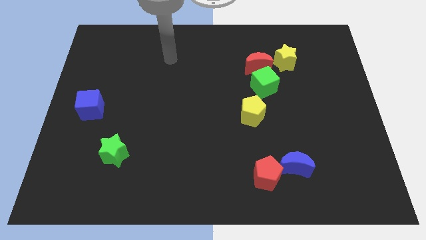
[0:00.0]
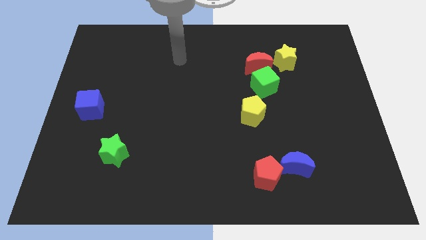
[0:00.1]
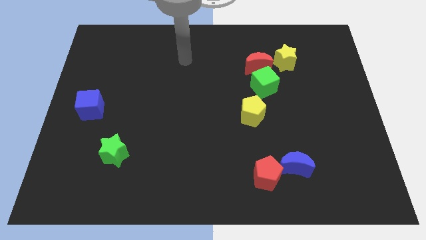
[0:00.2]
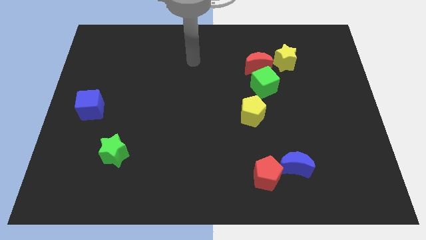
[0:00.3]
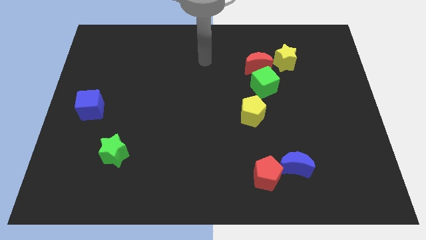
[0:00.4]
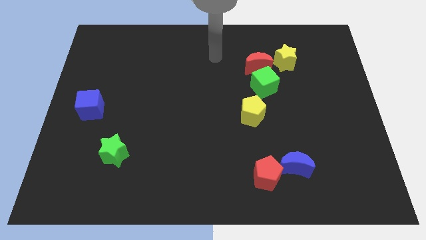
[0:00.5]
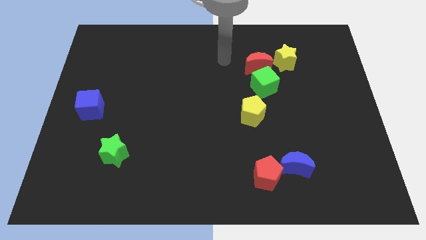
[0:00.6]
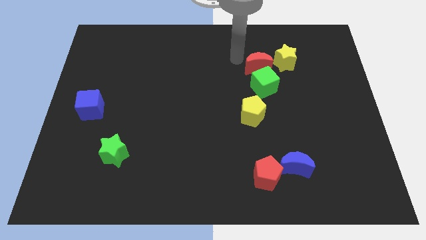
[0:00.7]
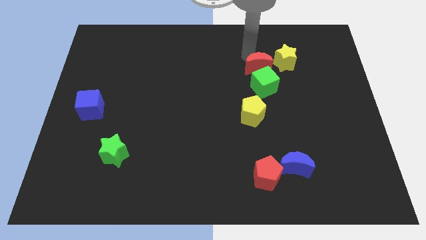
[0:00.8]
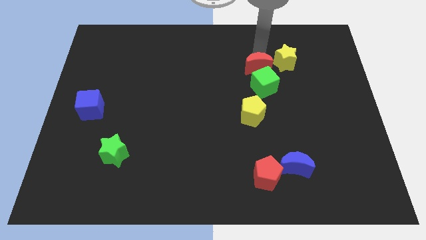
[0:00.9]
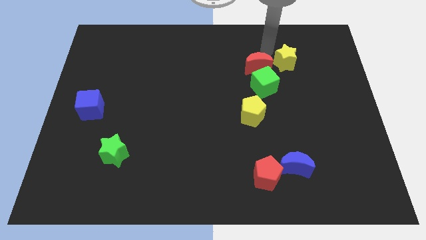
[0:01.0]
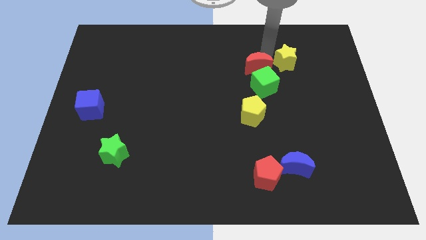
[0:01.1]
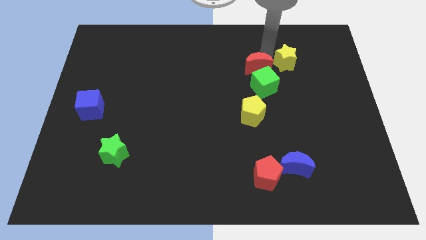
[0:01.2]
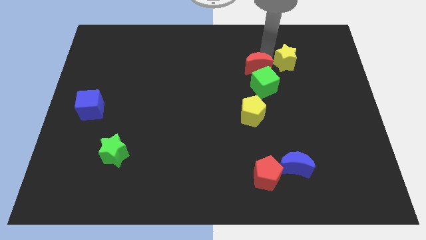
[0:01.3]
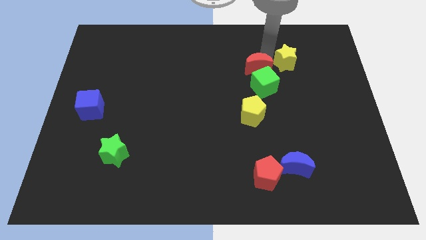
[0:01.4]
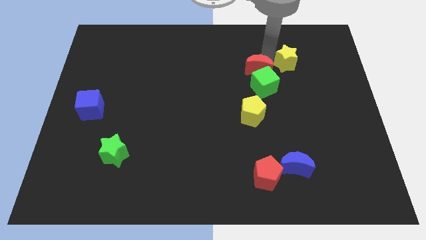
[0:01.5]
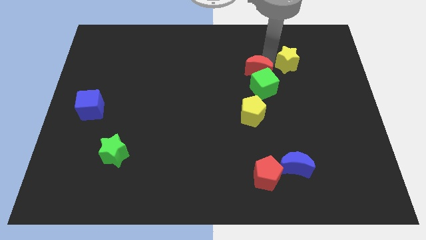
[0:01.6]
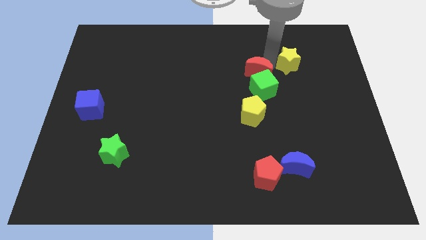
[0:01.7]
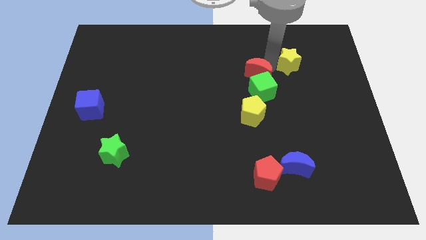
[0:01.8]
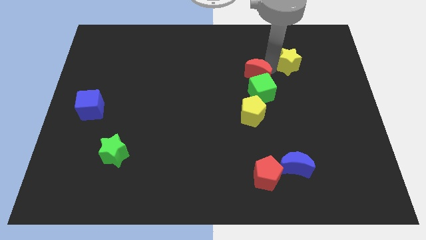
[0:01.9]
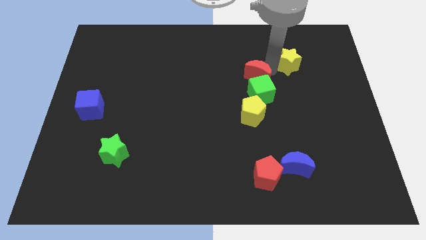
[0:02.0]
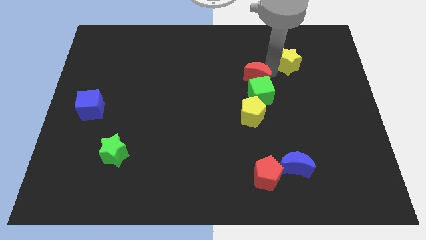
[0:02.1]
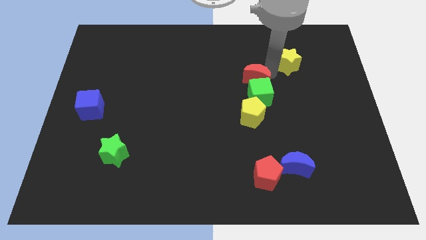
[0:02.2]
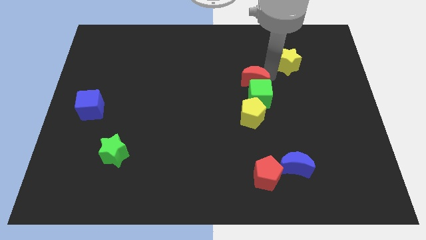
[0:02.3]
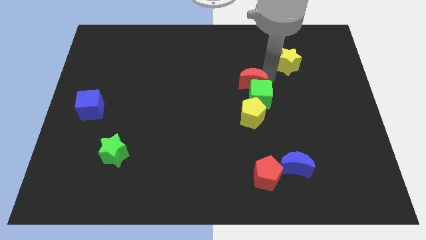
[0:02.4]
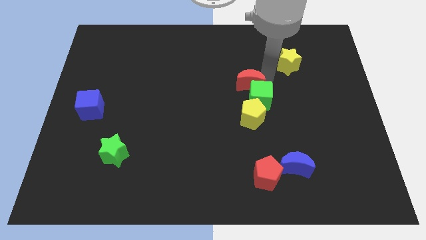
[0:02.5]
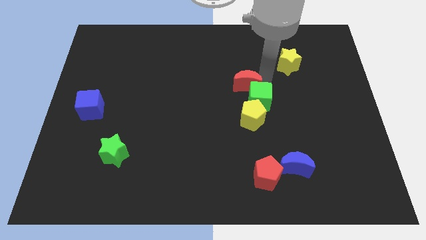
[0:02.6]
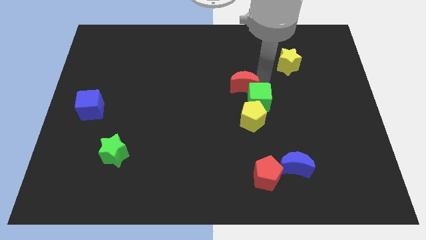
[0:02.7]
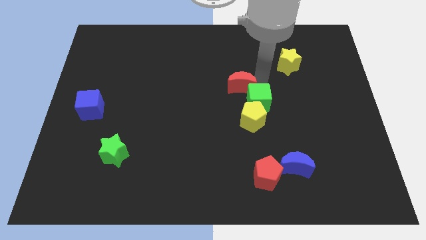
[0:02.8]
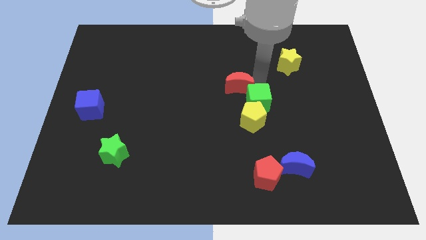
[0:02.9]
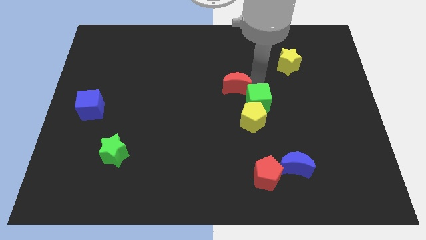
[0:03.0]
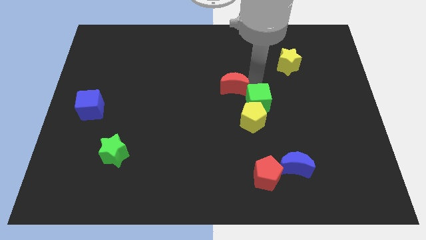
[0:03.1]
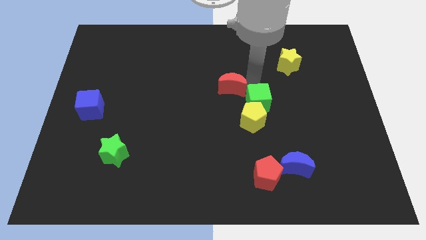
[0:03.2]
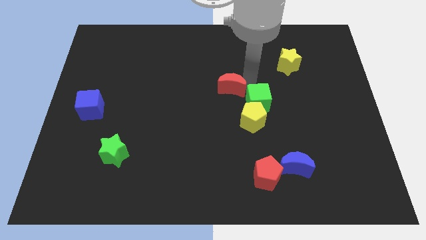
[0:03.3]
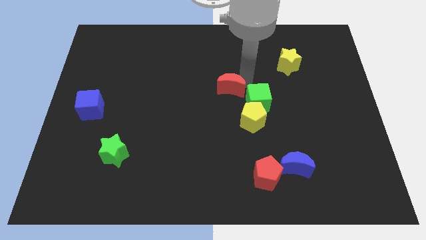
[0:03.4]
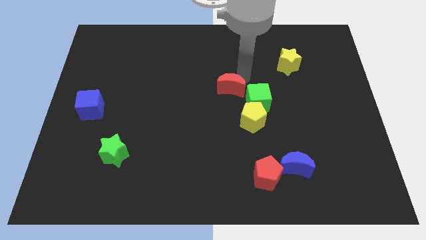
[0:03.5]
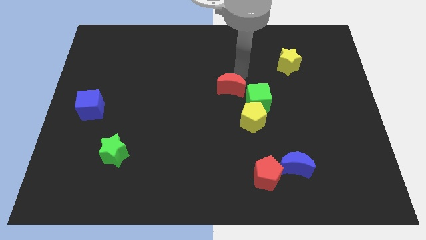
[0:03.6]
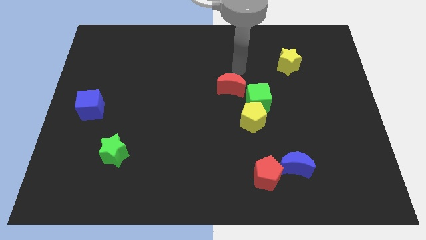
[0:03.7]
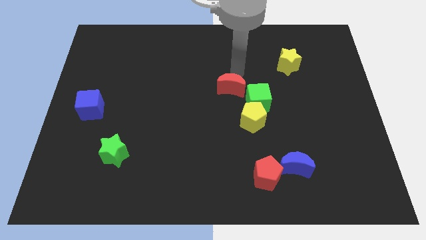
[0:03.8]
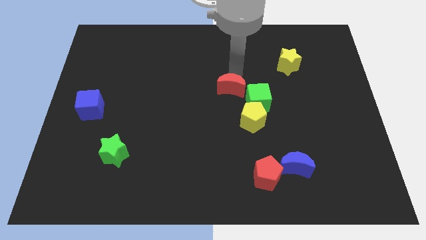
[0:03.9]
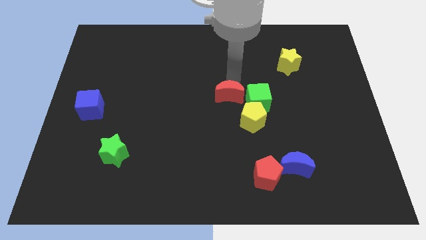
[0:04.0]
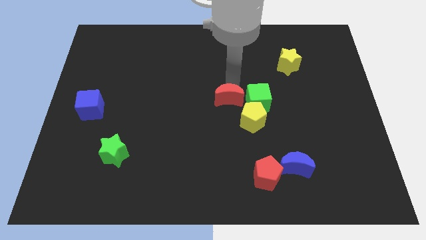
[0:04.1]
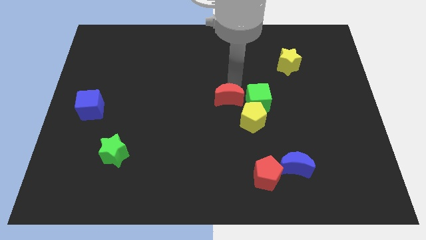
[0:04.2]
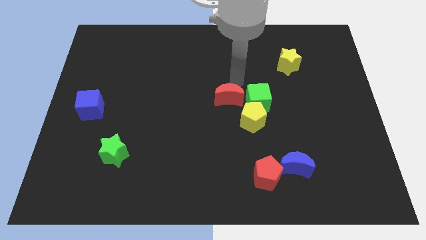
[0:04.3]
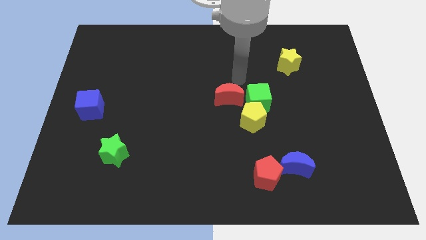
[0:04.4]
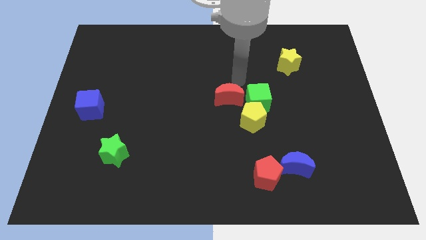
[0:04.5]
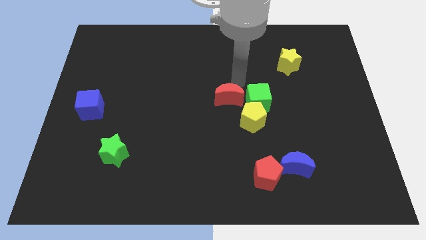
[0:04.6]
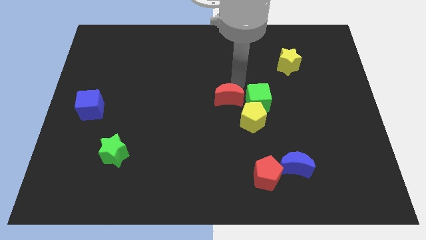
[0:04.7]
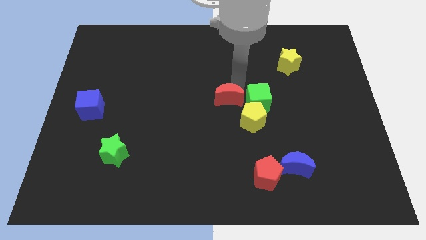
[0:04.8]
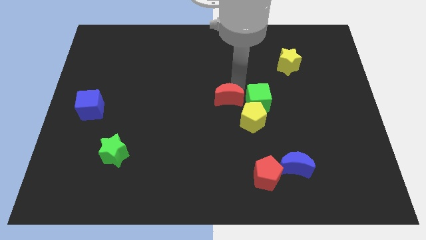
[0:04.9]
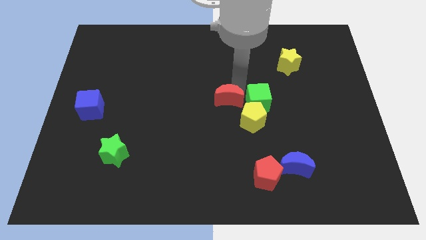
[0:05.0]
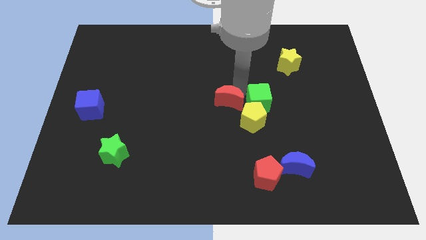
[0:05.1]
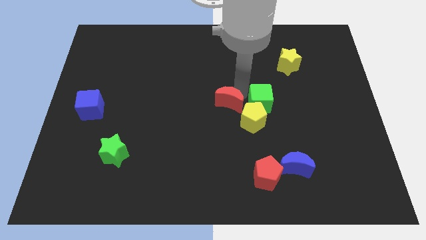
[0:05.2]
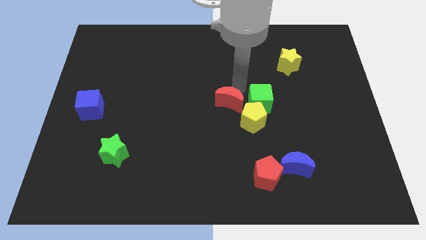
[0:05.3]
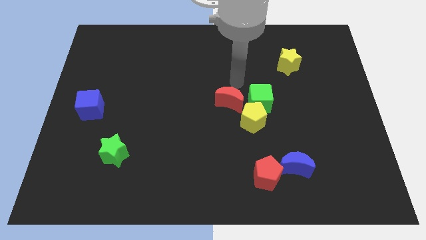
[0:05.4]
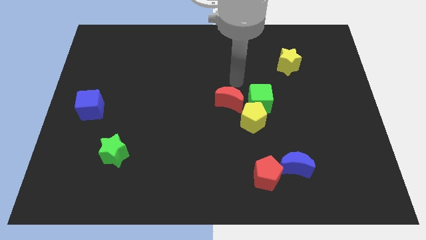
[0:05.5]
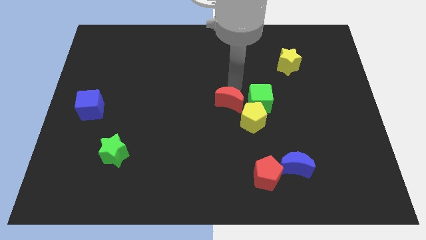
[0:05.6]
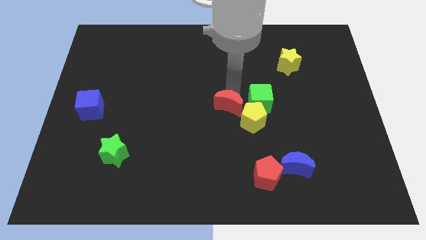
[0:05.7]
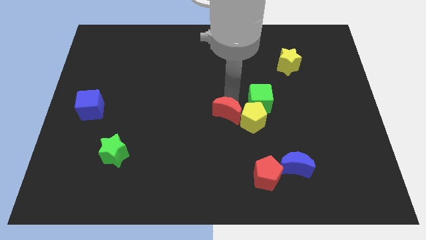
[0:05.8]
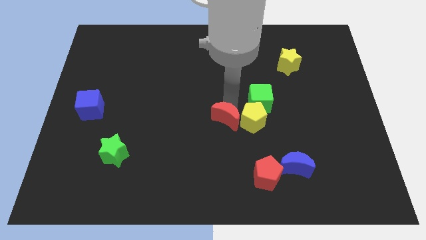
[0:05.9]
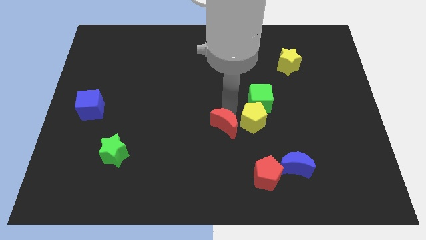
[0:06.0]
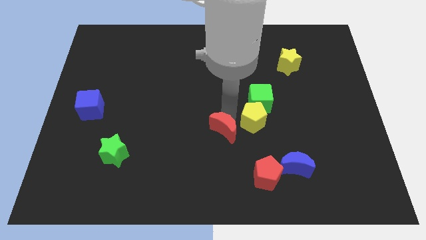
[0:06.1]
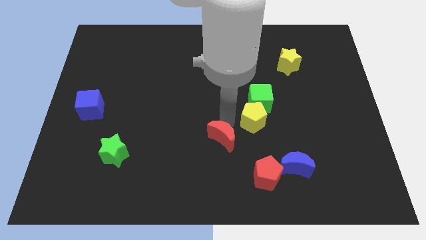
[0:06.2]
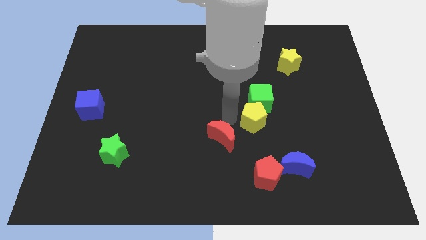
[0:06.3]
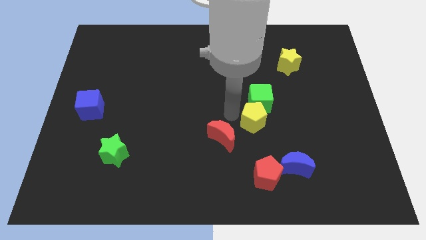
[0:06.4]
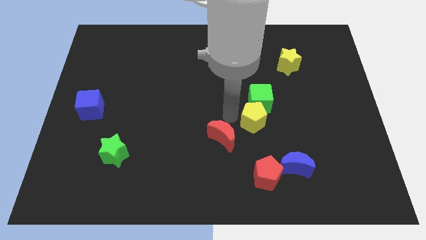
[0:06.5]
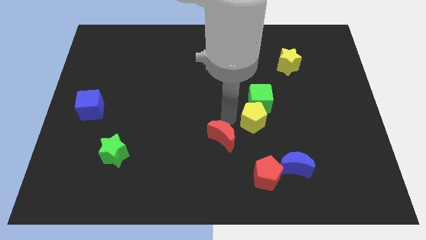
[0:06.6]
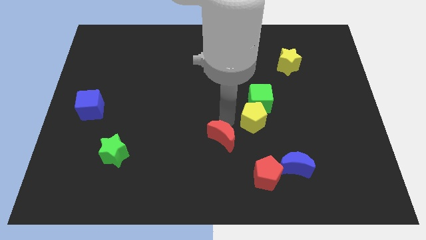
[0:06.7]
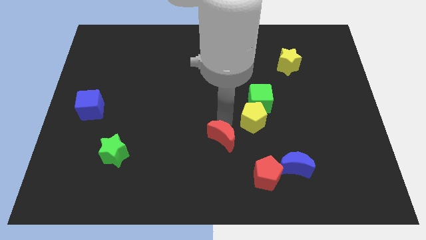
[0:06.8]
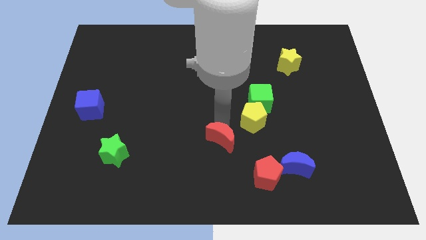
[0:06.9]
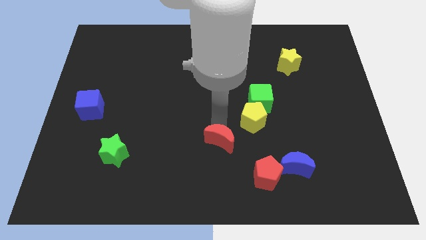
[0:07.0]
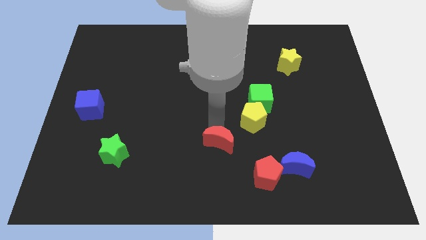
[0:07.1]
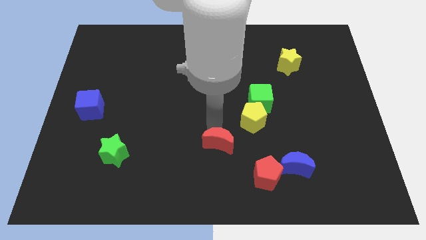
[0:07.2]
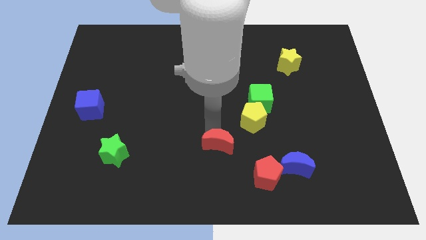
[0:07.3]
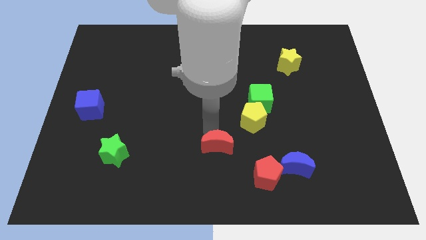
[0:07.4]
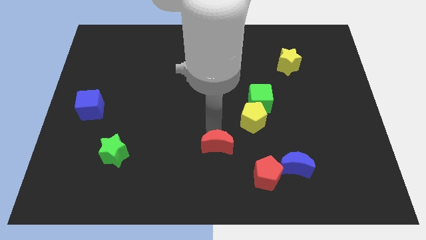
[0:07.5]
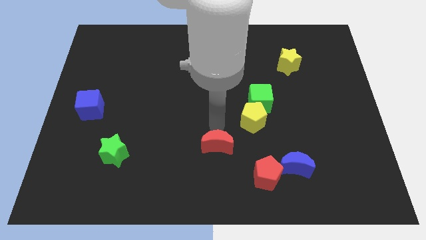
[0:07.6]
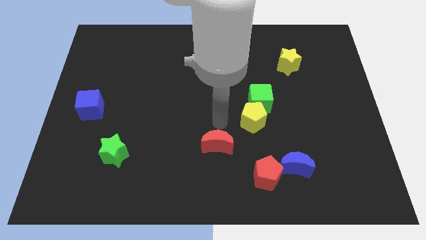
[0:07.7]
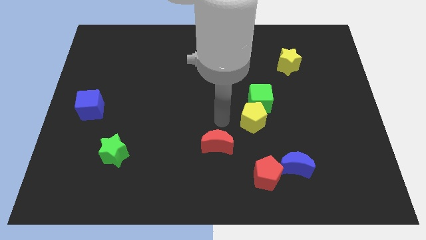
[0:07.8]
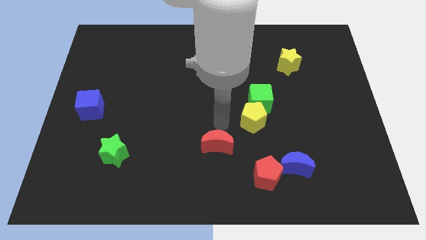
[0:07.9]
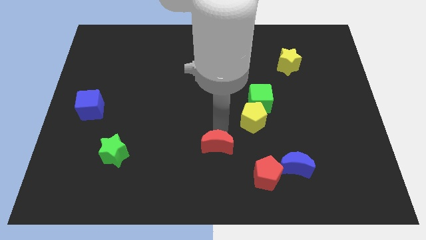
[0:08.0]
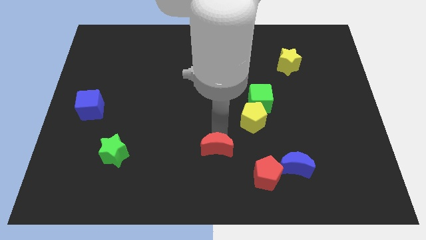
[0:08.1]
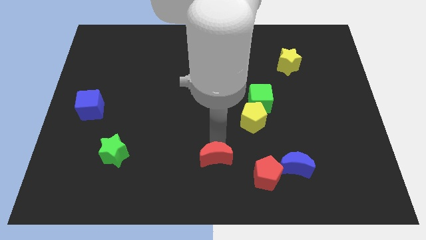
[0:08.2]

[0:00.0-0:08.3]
put the red moon to the bottom
